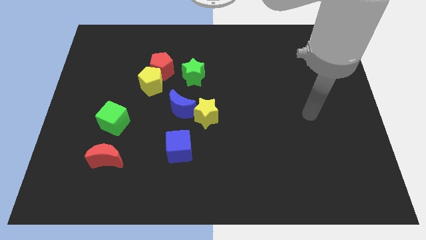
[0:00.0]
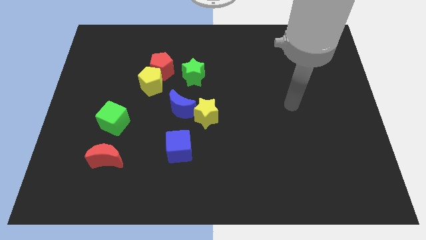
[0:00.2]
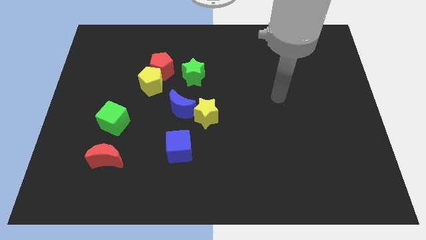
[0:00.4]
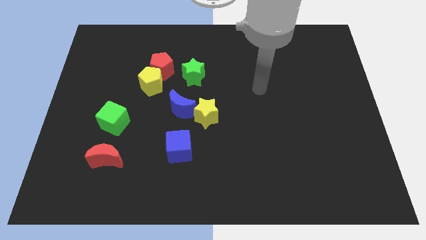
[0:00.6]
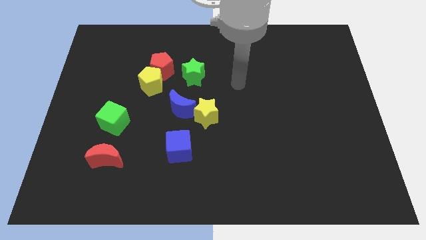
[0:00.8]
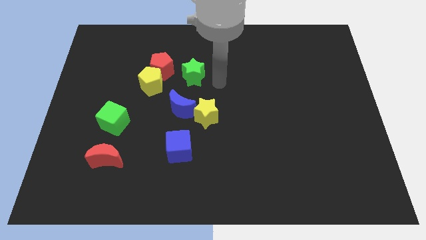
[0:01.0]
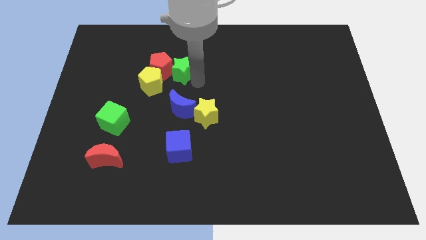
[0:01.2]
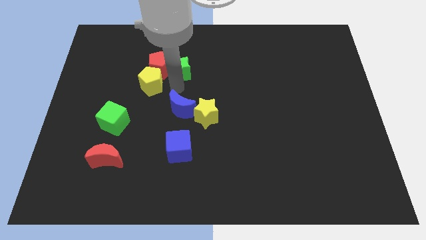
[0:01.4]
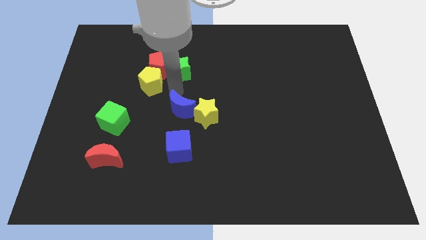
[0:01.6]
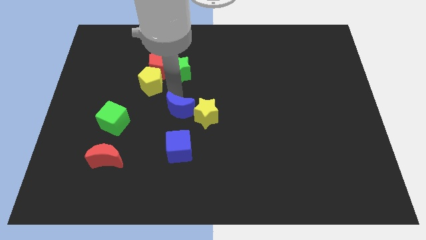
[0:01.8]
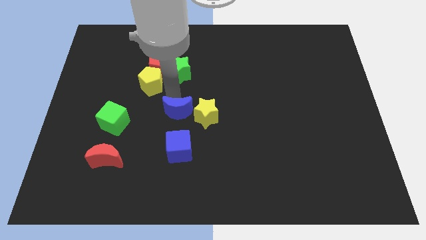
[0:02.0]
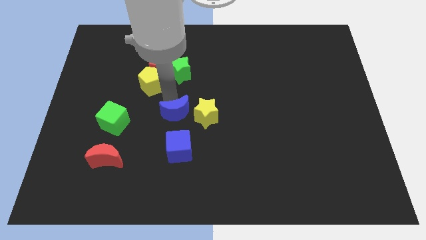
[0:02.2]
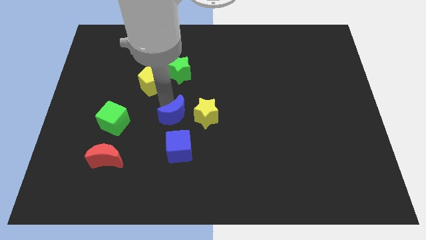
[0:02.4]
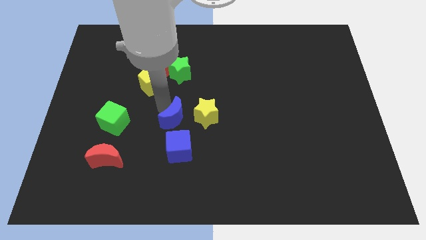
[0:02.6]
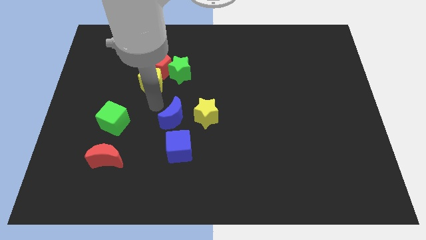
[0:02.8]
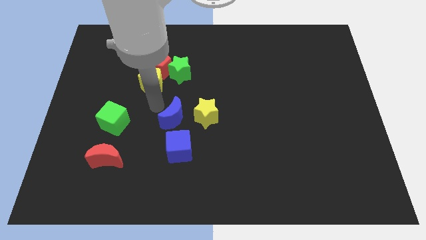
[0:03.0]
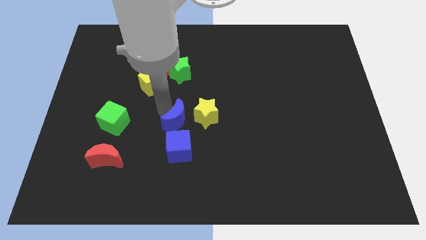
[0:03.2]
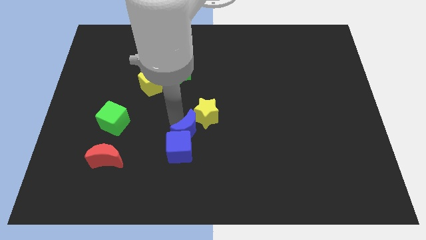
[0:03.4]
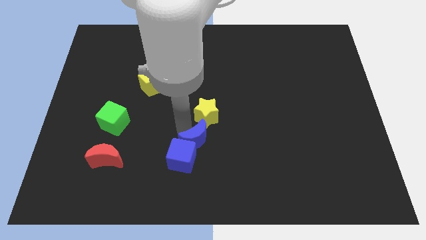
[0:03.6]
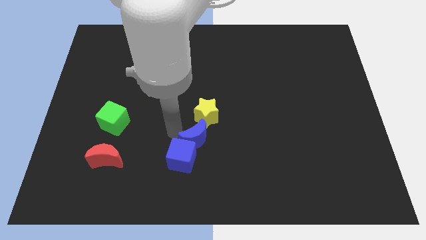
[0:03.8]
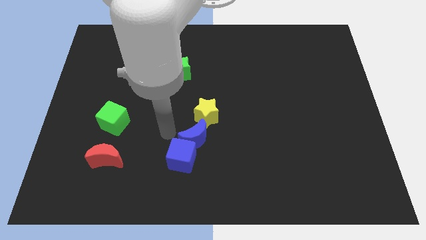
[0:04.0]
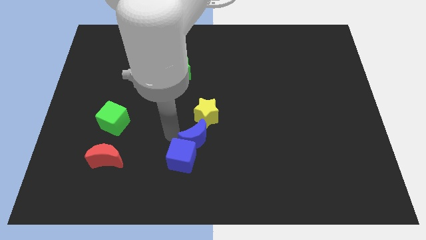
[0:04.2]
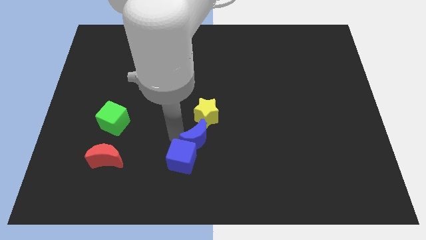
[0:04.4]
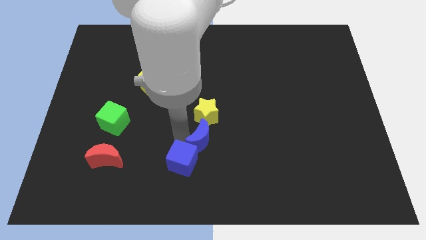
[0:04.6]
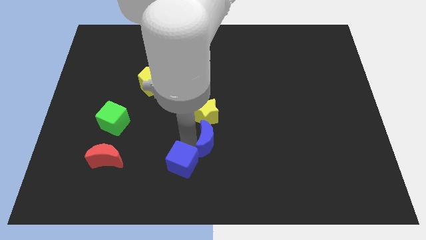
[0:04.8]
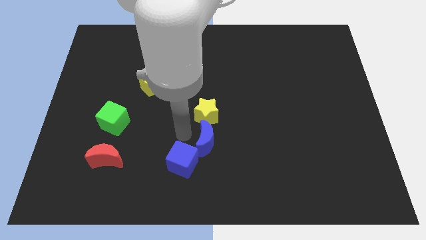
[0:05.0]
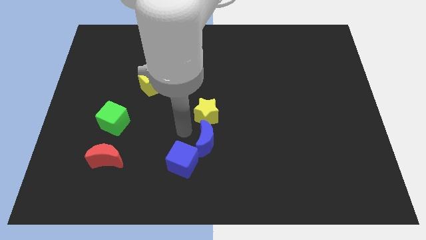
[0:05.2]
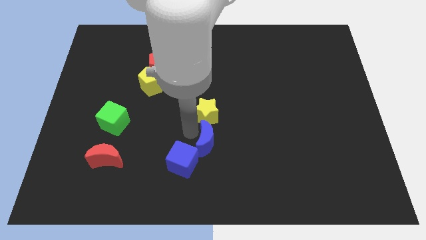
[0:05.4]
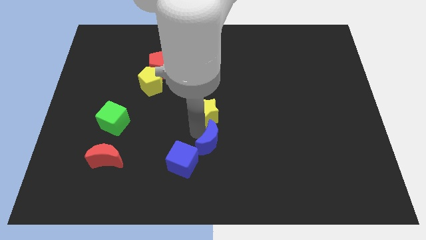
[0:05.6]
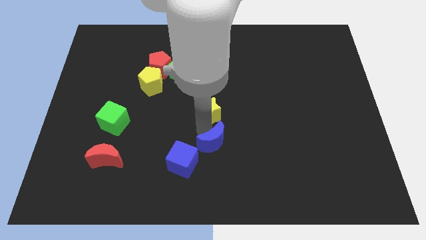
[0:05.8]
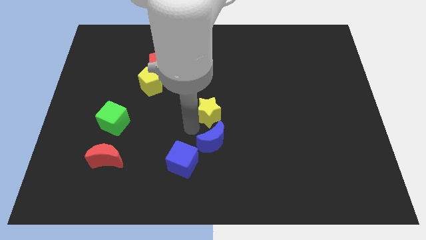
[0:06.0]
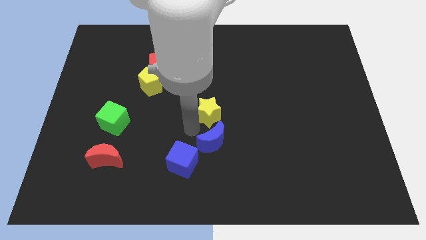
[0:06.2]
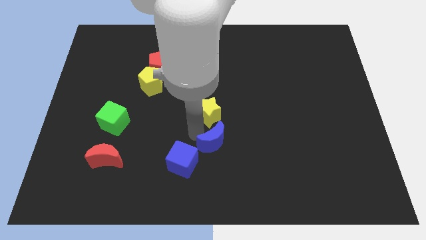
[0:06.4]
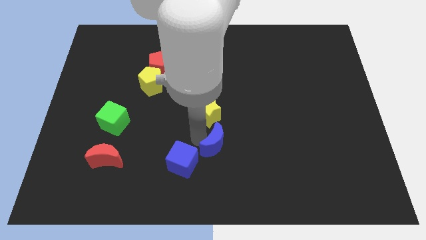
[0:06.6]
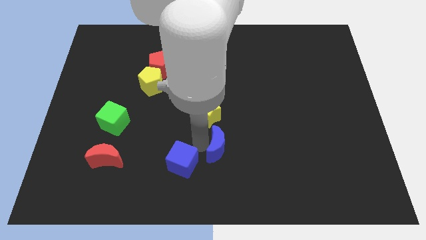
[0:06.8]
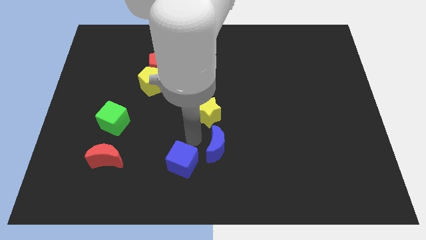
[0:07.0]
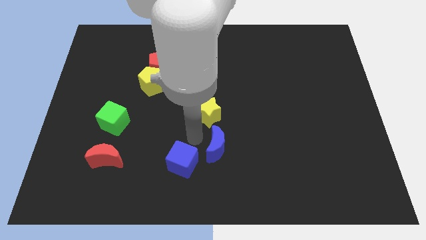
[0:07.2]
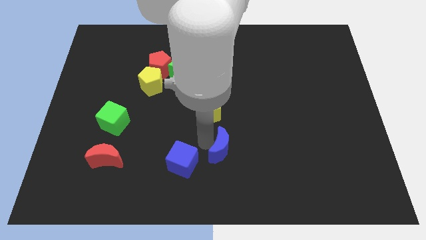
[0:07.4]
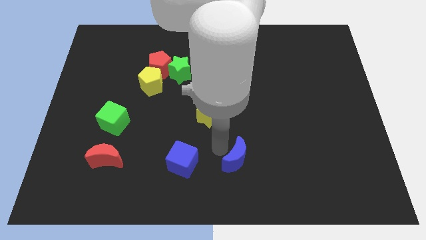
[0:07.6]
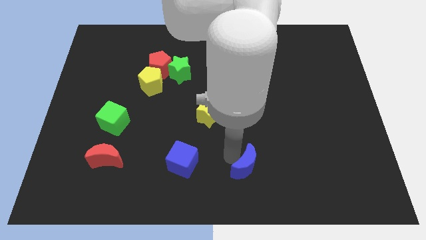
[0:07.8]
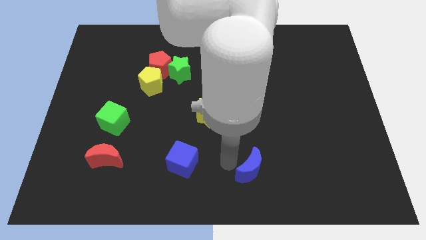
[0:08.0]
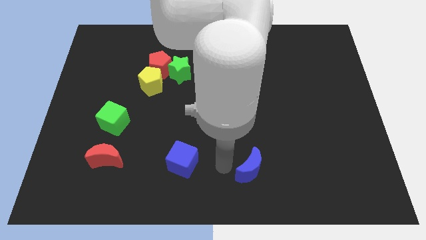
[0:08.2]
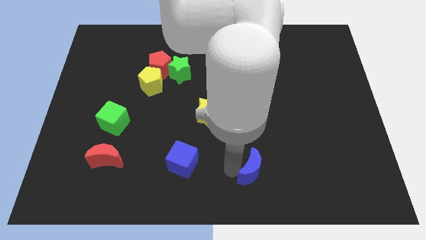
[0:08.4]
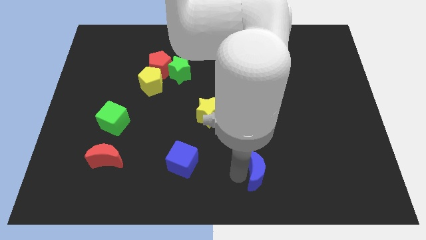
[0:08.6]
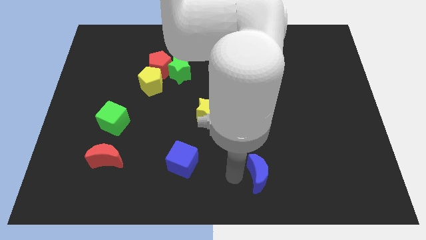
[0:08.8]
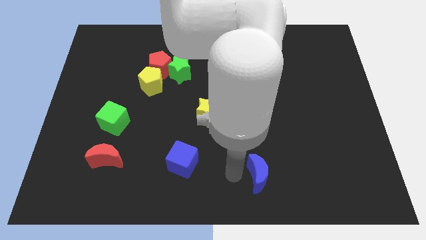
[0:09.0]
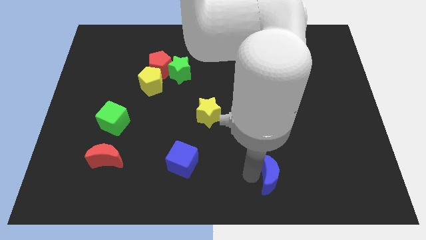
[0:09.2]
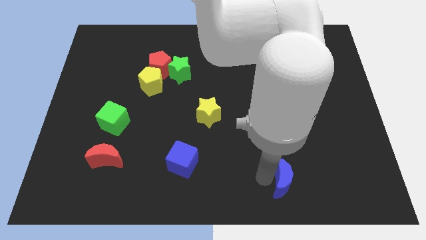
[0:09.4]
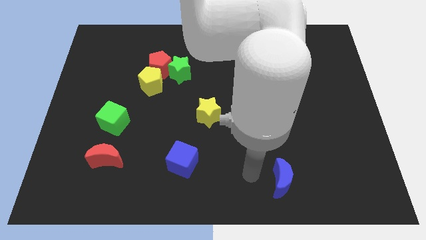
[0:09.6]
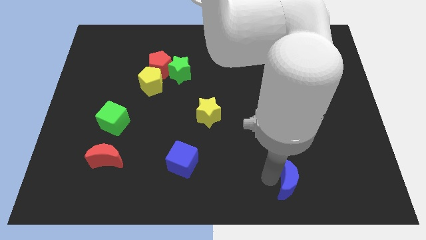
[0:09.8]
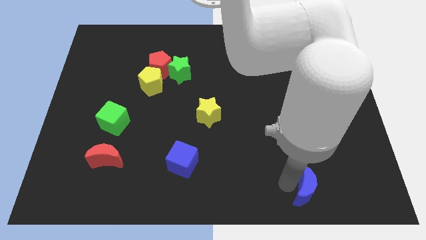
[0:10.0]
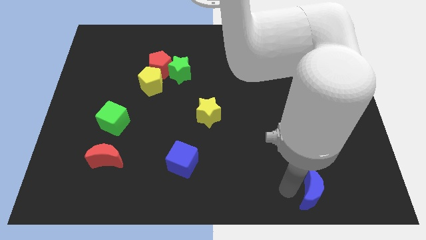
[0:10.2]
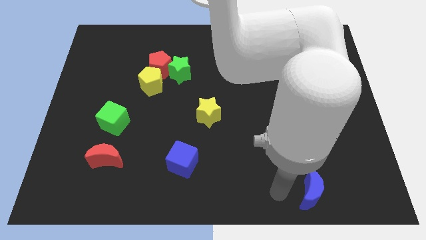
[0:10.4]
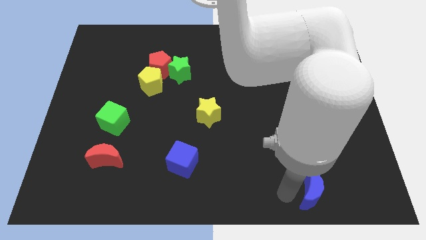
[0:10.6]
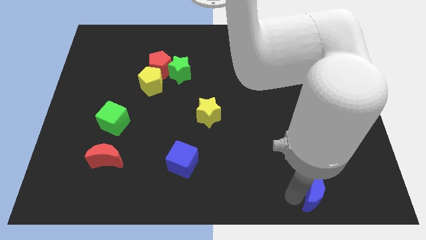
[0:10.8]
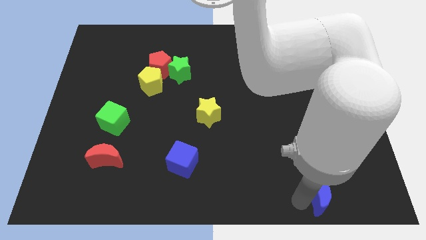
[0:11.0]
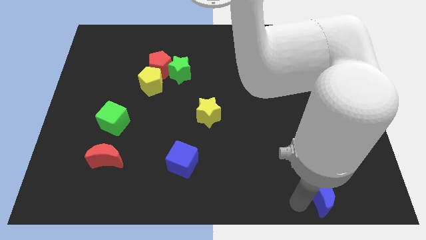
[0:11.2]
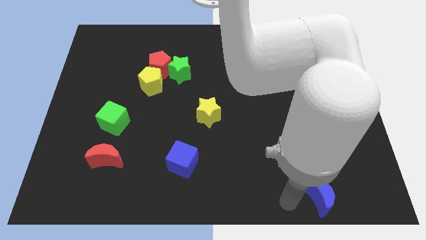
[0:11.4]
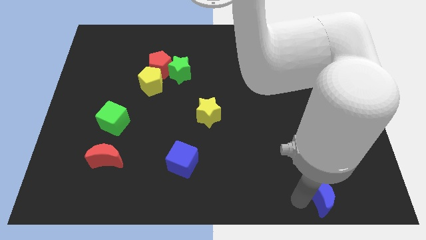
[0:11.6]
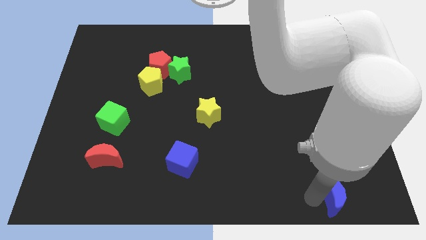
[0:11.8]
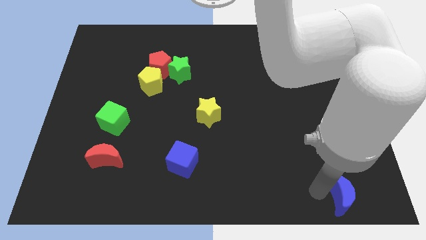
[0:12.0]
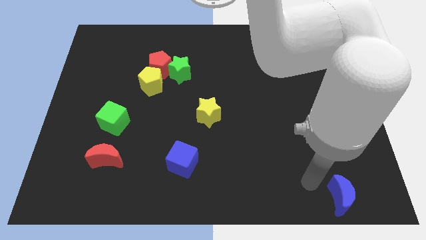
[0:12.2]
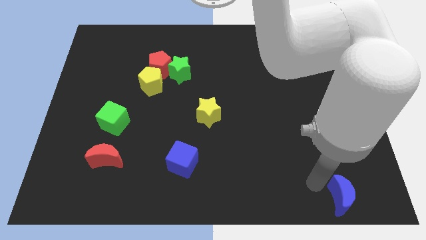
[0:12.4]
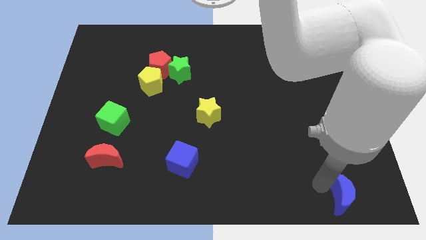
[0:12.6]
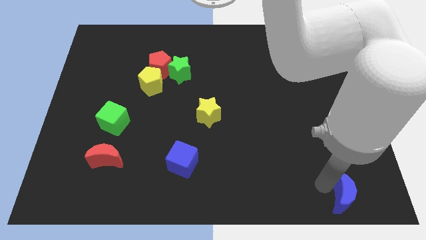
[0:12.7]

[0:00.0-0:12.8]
move the blue moon to the bottom right
